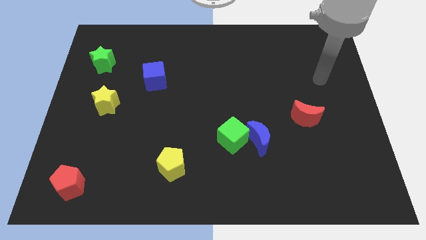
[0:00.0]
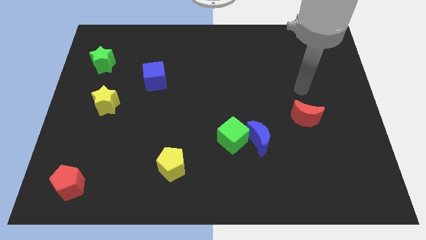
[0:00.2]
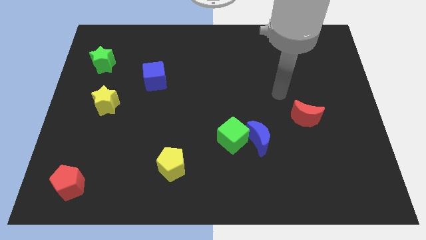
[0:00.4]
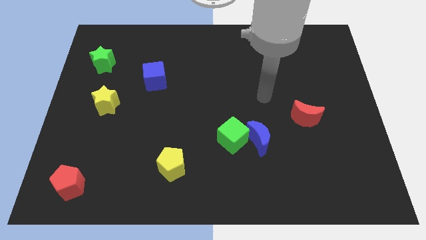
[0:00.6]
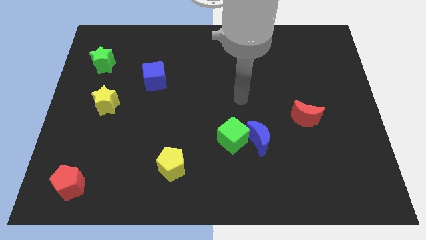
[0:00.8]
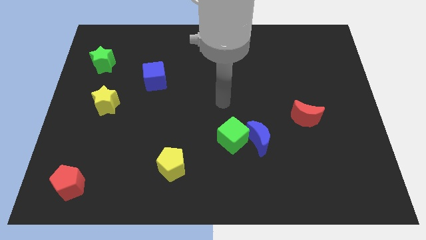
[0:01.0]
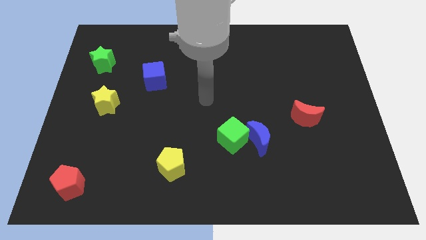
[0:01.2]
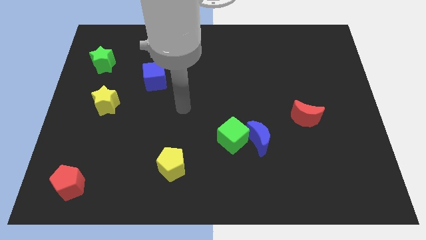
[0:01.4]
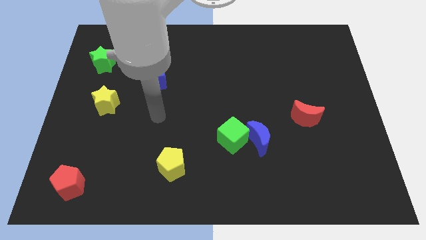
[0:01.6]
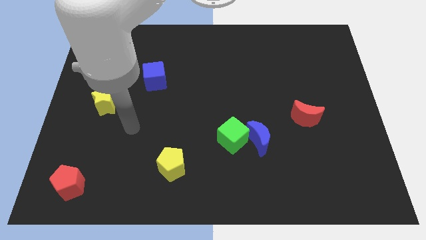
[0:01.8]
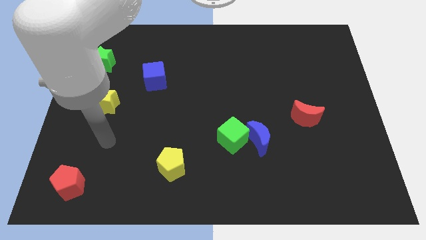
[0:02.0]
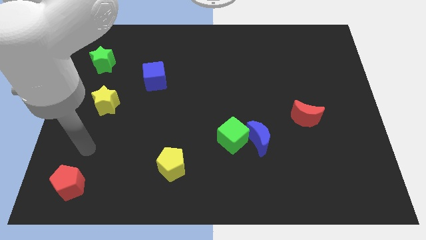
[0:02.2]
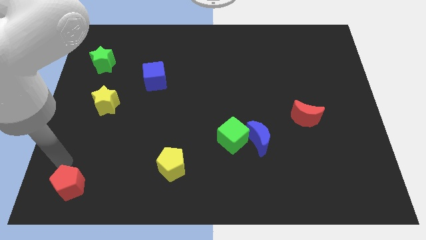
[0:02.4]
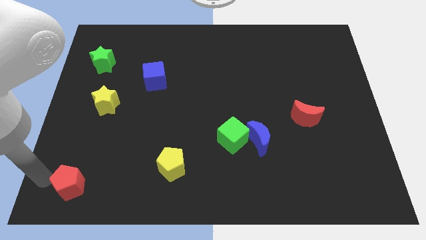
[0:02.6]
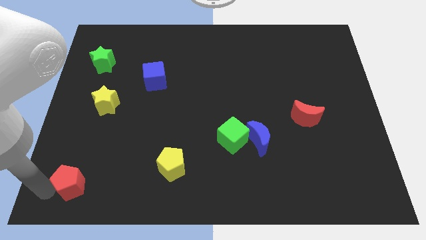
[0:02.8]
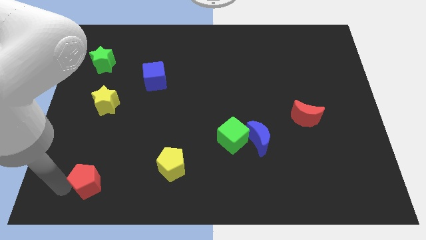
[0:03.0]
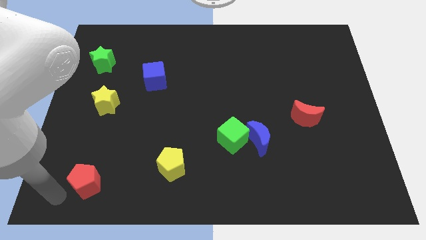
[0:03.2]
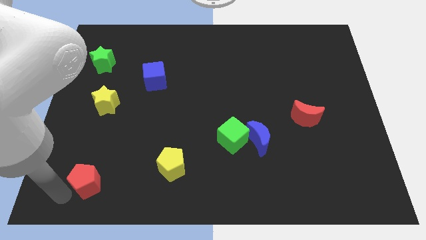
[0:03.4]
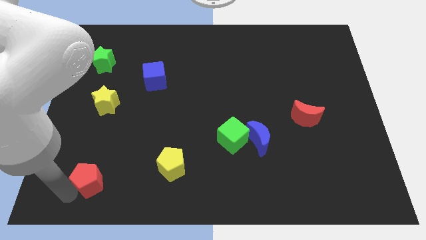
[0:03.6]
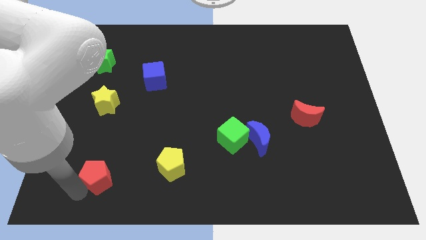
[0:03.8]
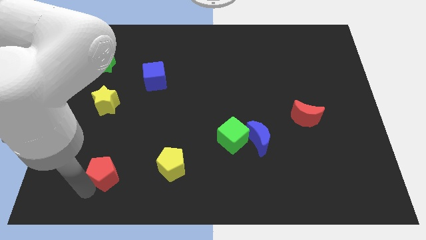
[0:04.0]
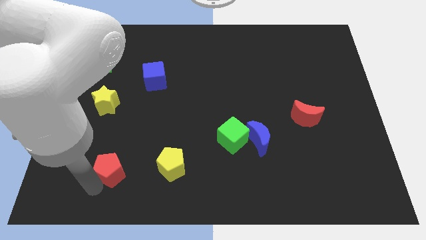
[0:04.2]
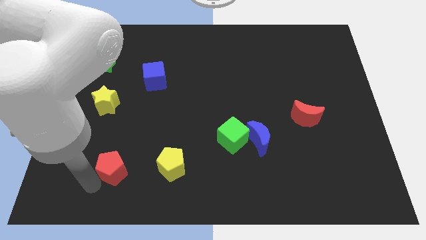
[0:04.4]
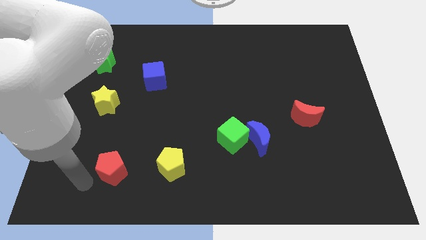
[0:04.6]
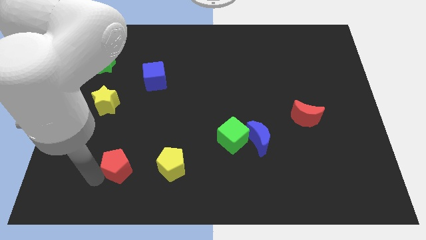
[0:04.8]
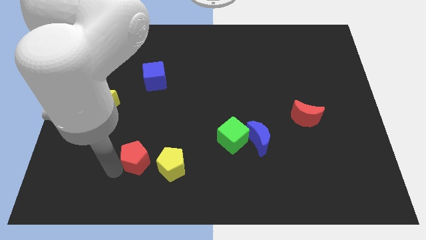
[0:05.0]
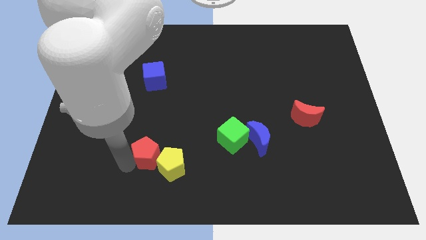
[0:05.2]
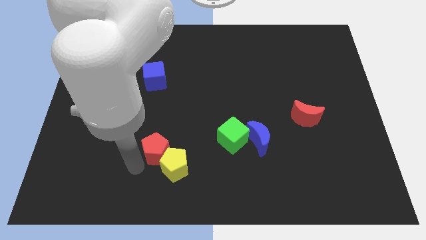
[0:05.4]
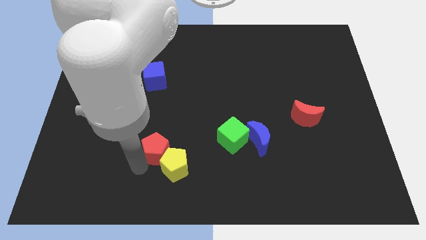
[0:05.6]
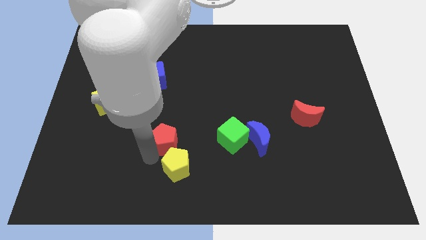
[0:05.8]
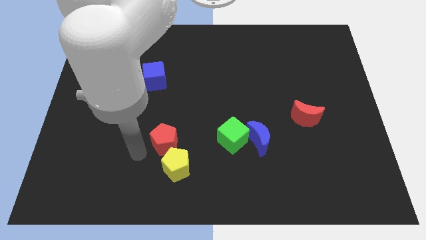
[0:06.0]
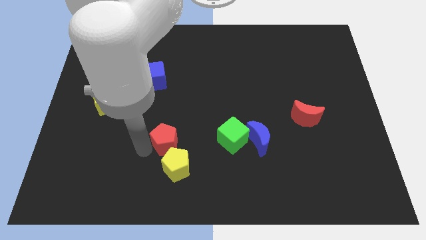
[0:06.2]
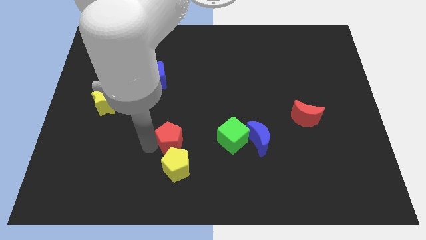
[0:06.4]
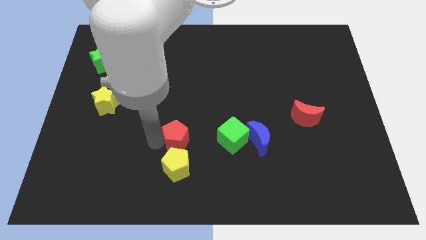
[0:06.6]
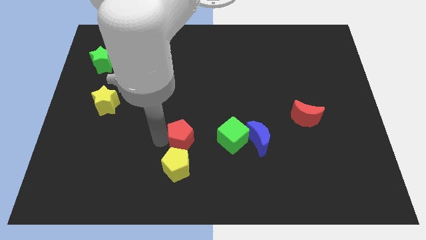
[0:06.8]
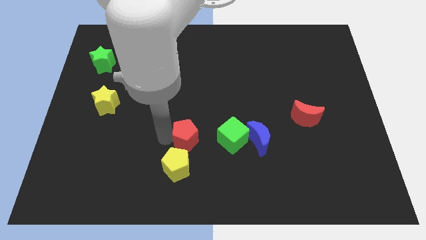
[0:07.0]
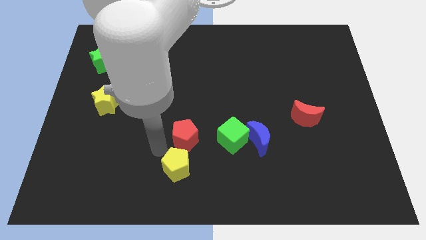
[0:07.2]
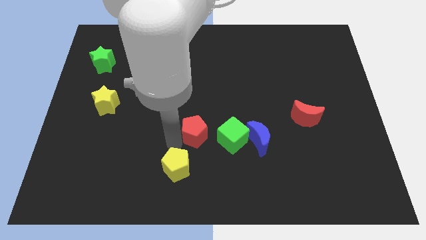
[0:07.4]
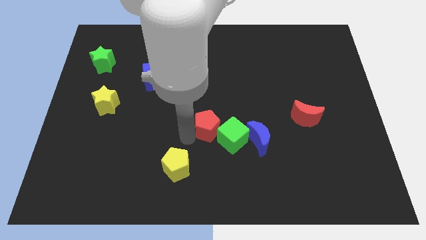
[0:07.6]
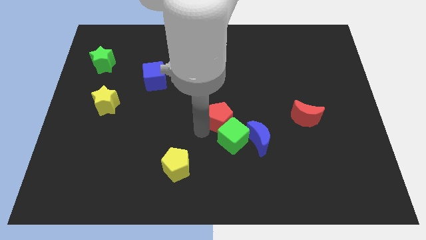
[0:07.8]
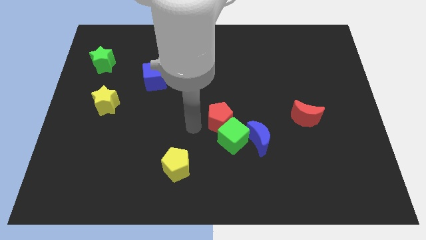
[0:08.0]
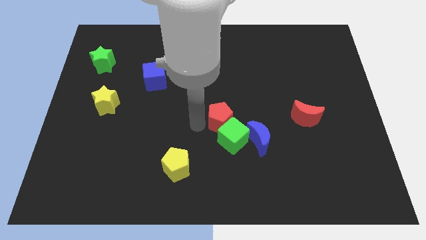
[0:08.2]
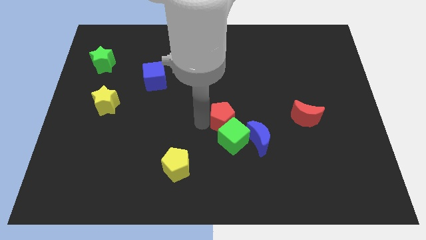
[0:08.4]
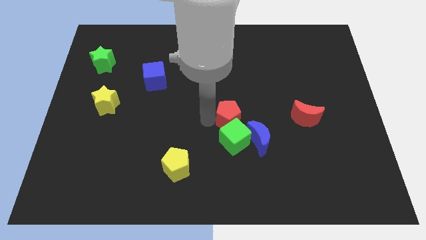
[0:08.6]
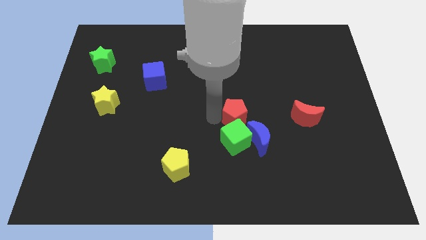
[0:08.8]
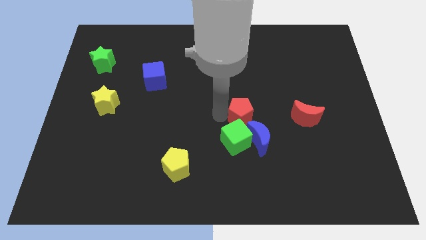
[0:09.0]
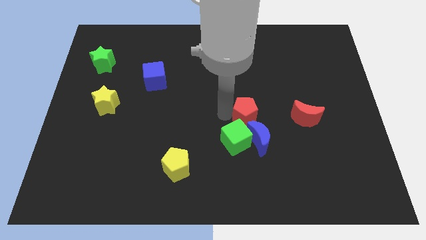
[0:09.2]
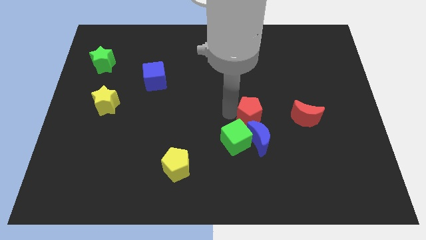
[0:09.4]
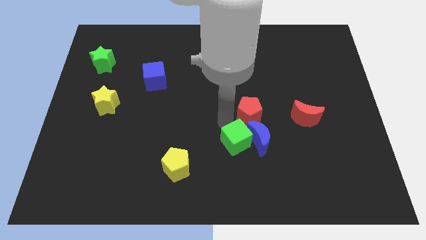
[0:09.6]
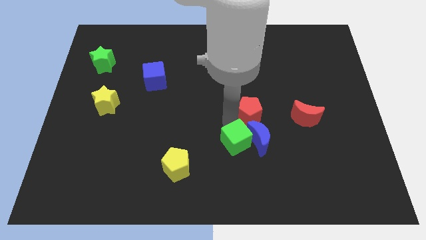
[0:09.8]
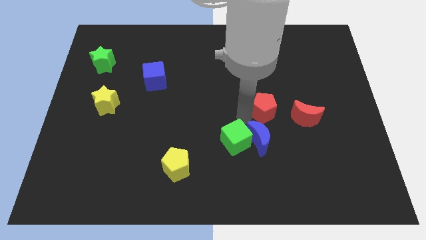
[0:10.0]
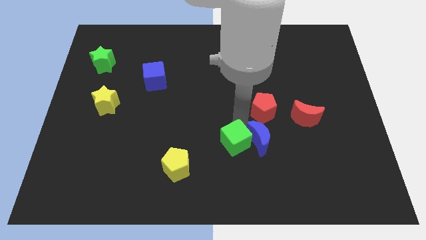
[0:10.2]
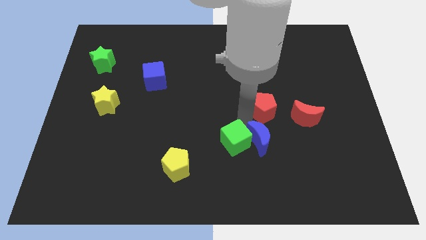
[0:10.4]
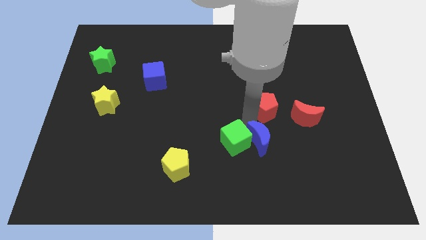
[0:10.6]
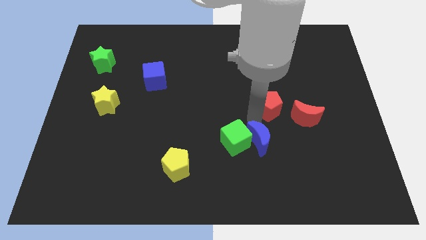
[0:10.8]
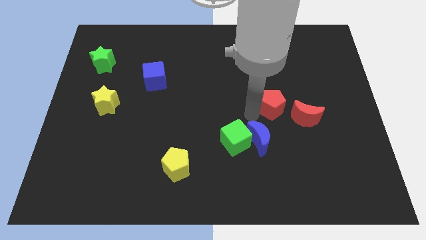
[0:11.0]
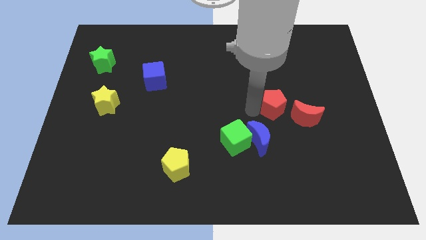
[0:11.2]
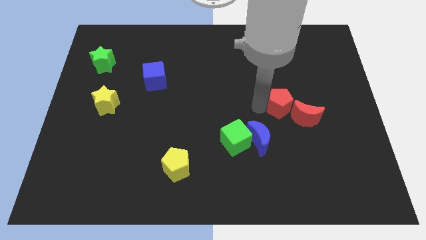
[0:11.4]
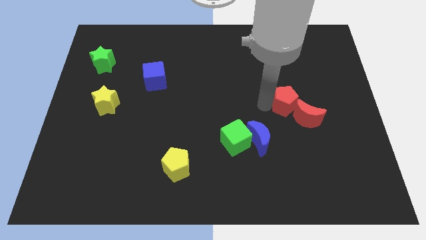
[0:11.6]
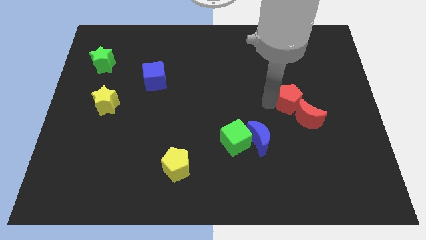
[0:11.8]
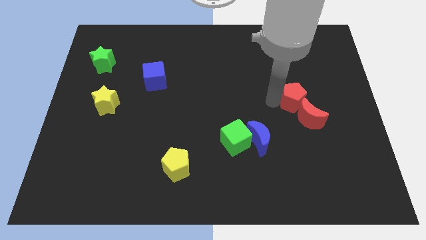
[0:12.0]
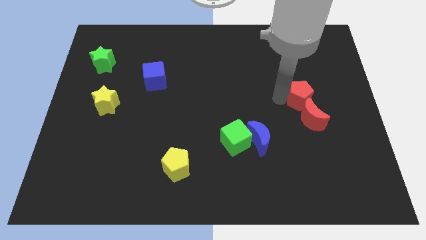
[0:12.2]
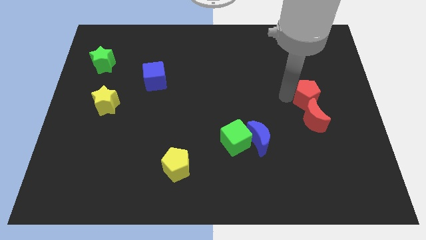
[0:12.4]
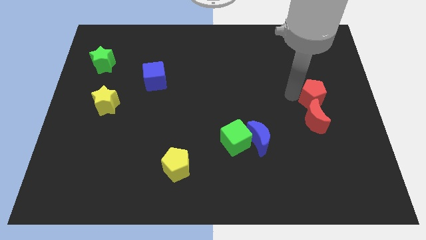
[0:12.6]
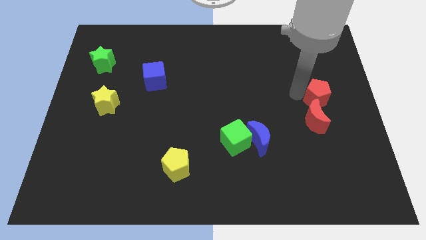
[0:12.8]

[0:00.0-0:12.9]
put the red pentagon to the right side
